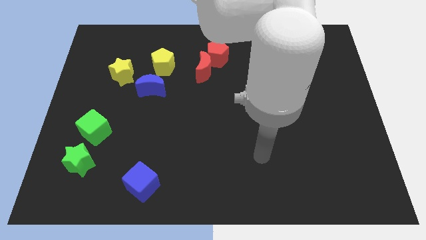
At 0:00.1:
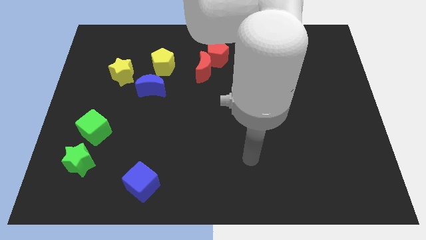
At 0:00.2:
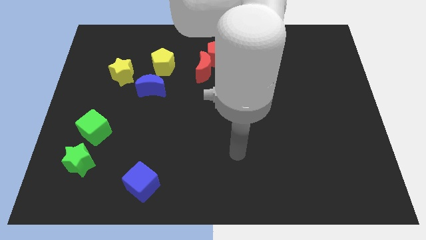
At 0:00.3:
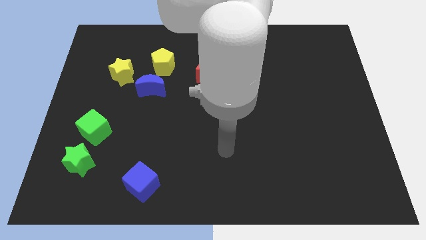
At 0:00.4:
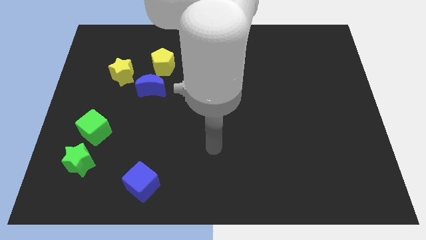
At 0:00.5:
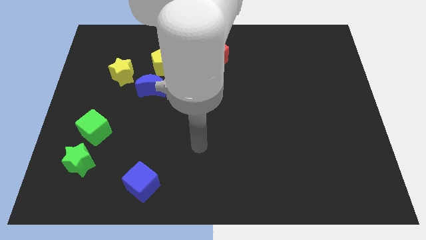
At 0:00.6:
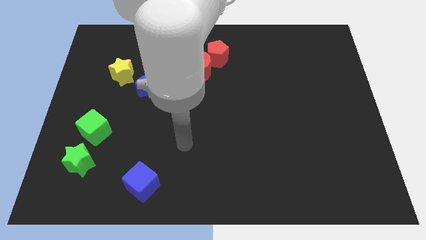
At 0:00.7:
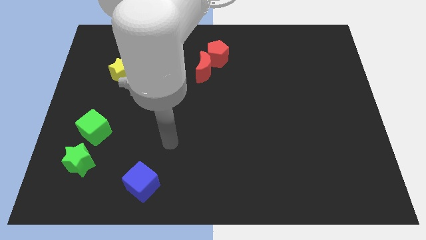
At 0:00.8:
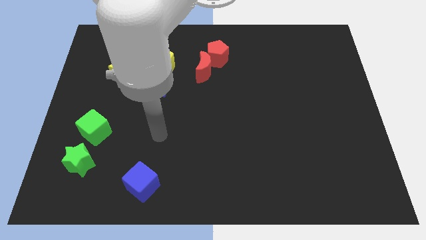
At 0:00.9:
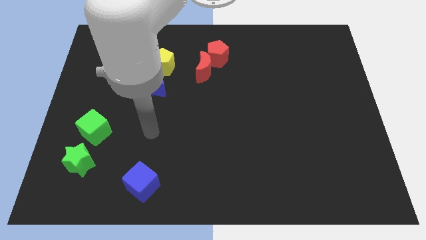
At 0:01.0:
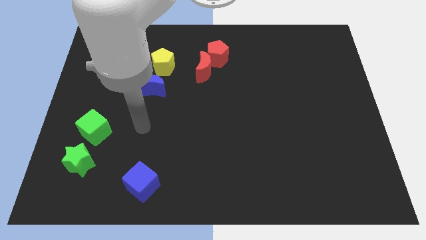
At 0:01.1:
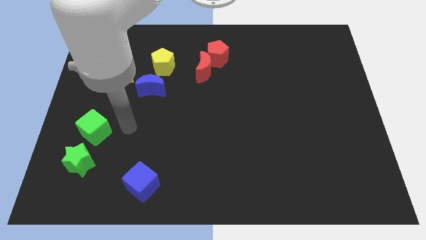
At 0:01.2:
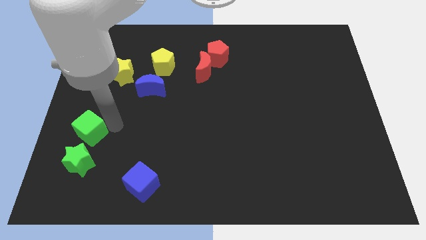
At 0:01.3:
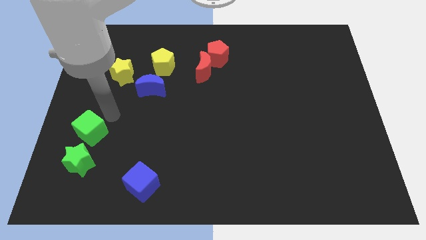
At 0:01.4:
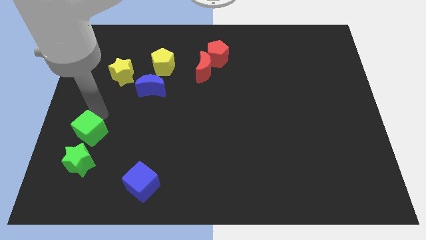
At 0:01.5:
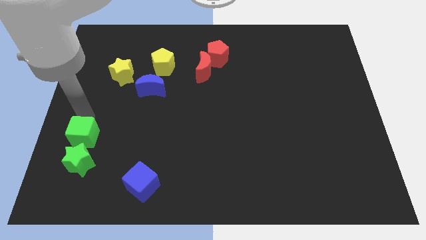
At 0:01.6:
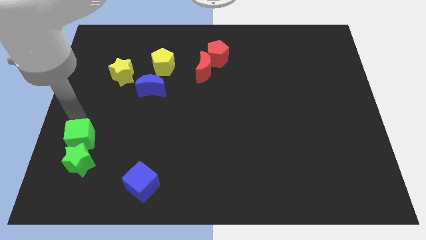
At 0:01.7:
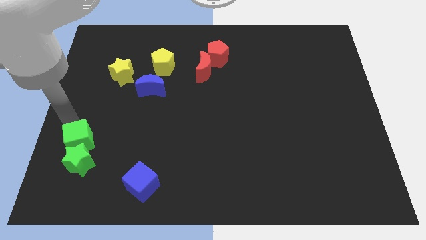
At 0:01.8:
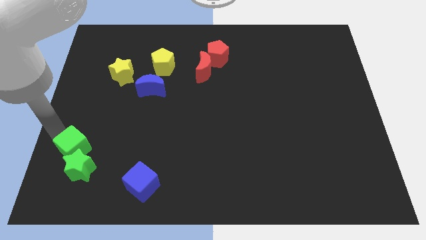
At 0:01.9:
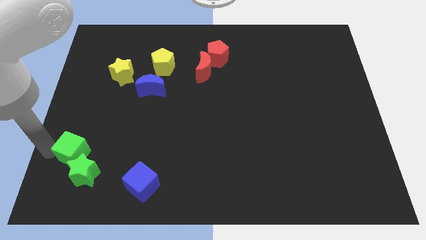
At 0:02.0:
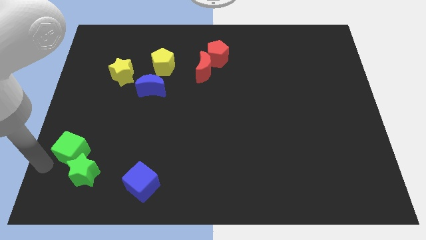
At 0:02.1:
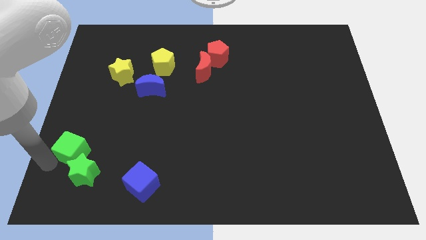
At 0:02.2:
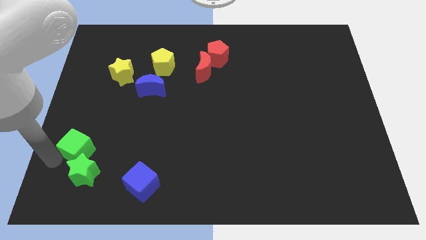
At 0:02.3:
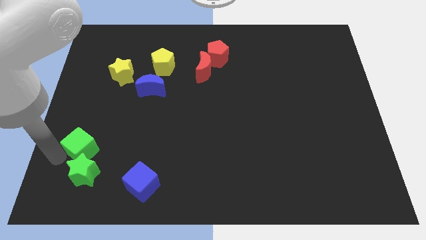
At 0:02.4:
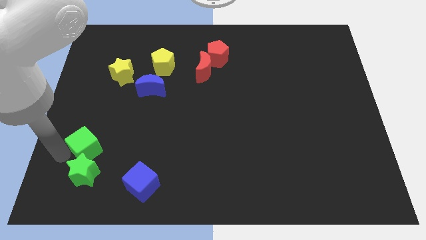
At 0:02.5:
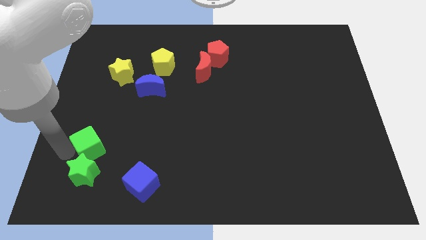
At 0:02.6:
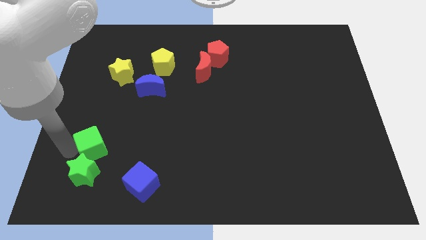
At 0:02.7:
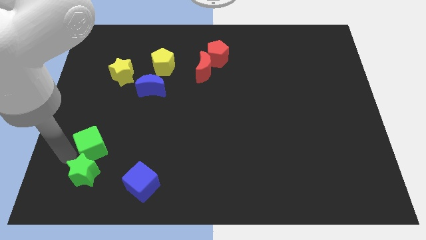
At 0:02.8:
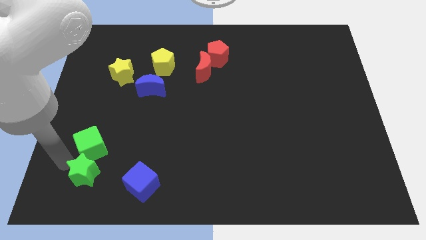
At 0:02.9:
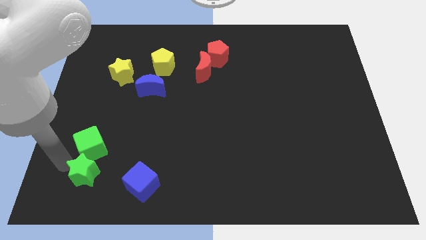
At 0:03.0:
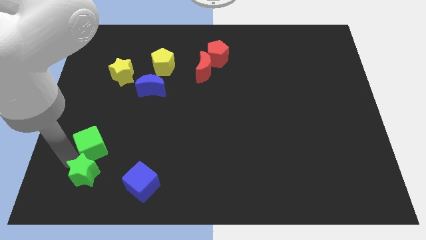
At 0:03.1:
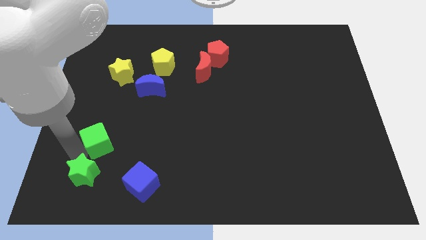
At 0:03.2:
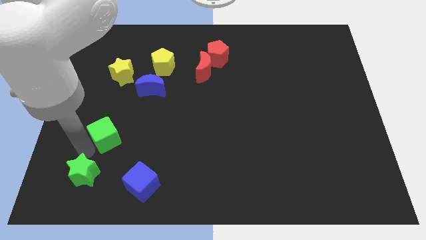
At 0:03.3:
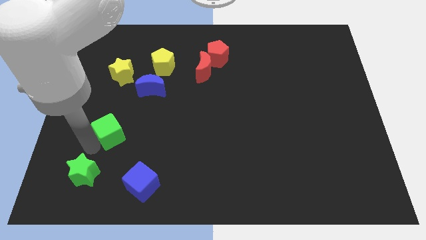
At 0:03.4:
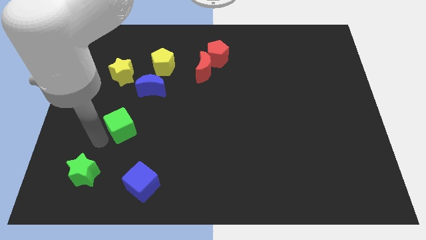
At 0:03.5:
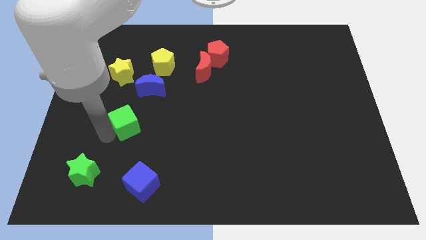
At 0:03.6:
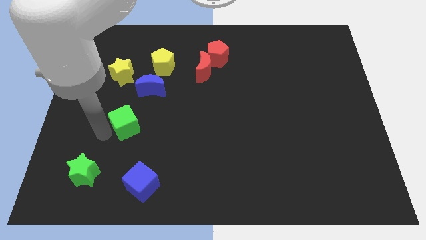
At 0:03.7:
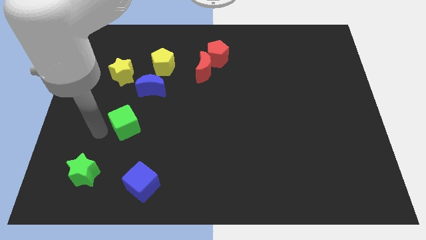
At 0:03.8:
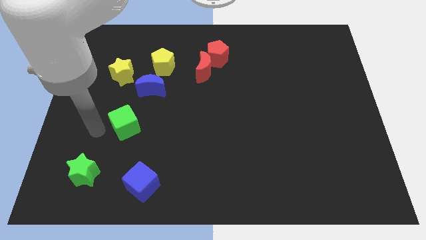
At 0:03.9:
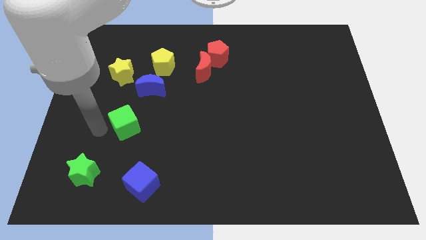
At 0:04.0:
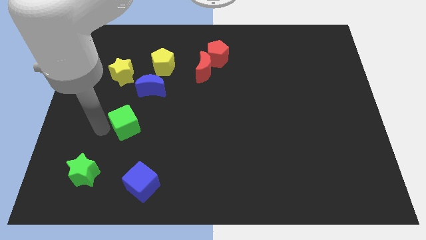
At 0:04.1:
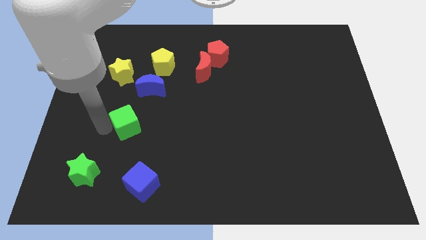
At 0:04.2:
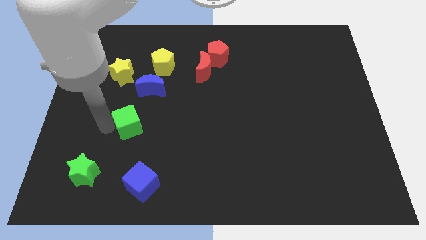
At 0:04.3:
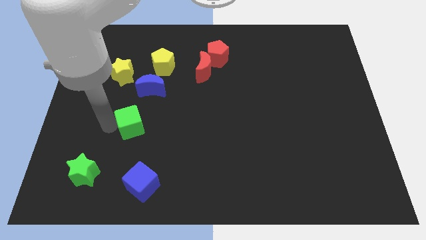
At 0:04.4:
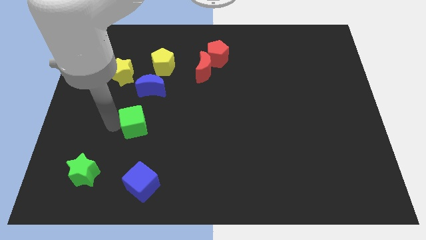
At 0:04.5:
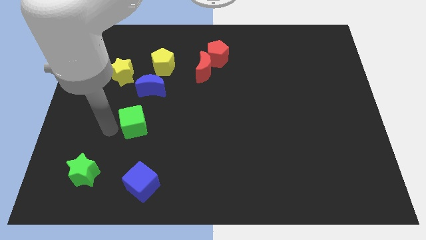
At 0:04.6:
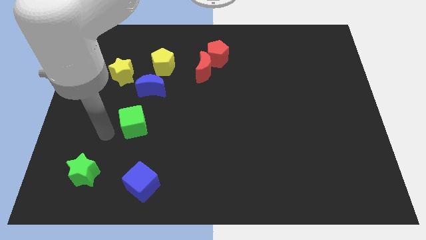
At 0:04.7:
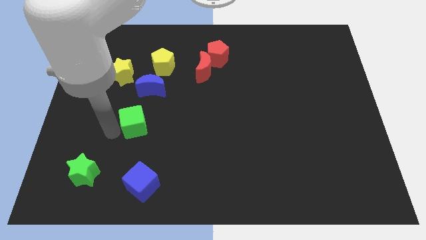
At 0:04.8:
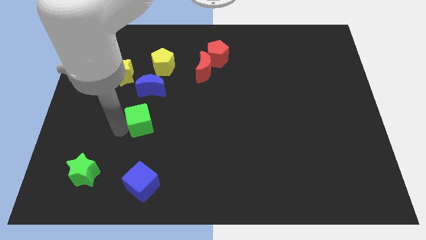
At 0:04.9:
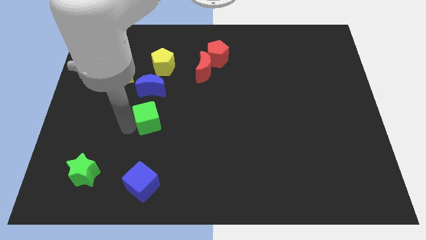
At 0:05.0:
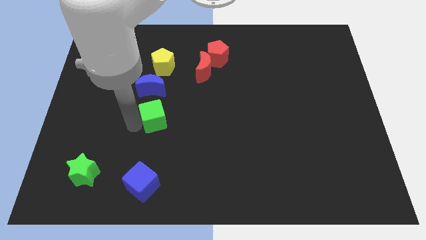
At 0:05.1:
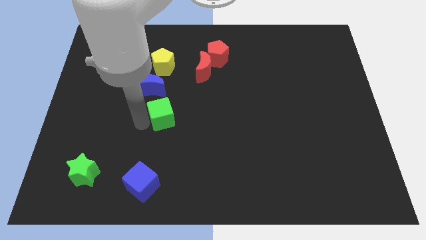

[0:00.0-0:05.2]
slide the green cube to the center of the board

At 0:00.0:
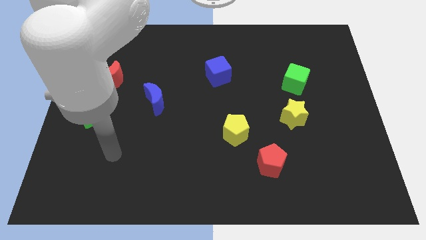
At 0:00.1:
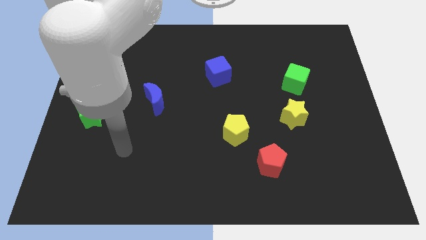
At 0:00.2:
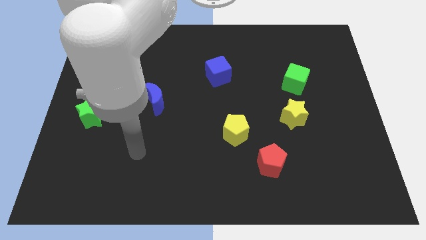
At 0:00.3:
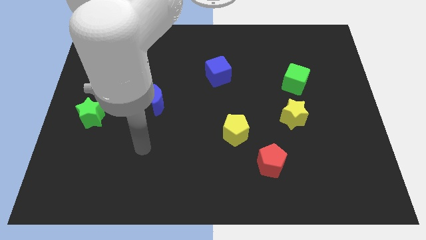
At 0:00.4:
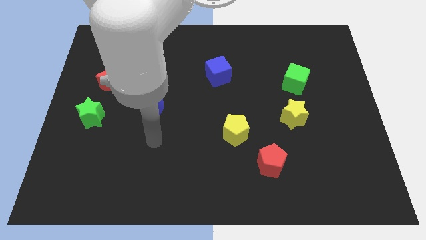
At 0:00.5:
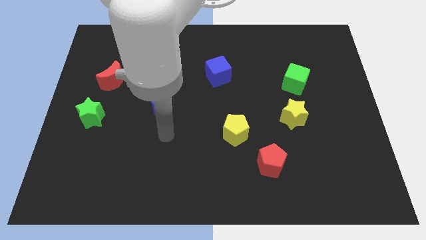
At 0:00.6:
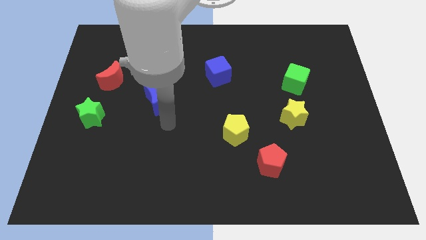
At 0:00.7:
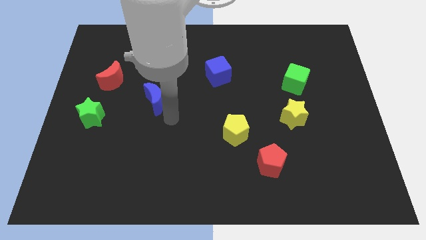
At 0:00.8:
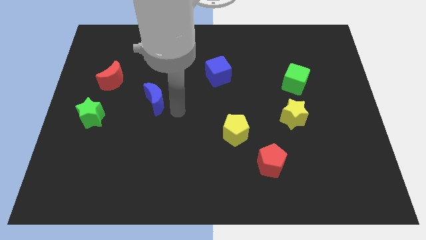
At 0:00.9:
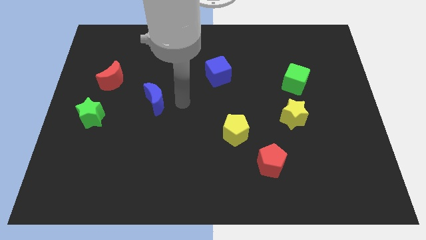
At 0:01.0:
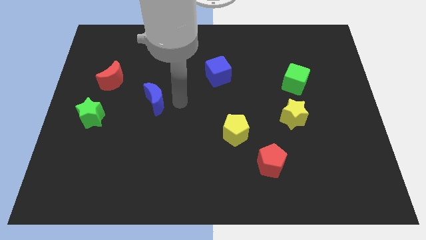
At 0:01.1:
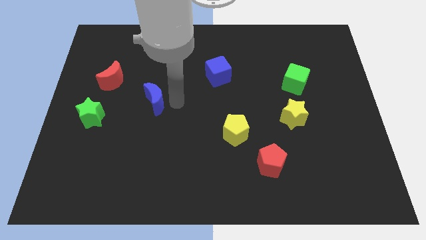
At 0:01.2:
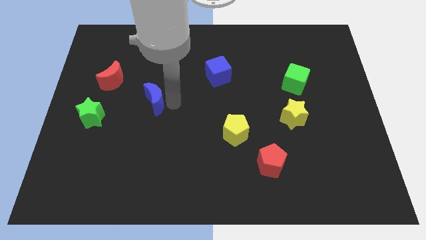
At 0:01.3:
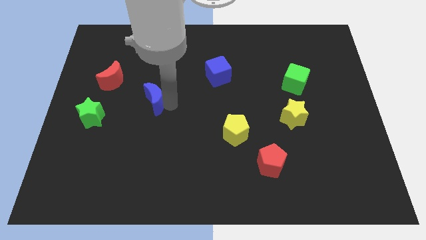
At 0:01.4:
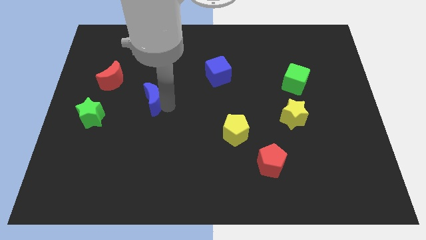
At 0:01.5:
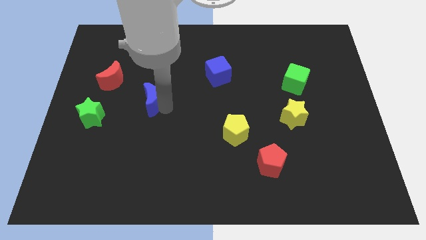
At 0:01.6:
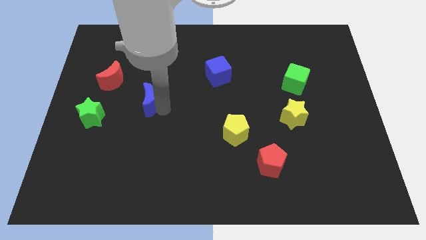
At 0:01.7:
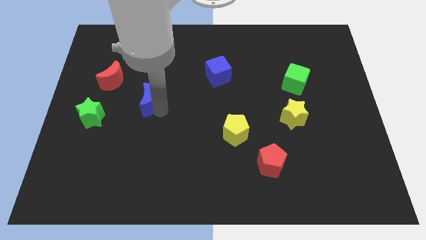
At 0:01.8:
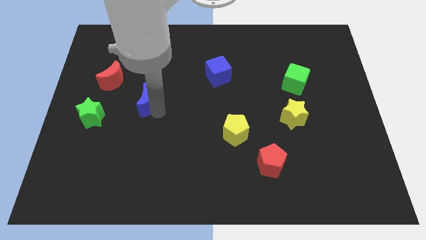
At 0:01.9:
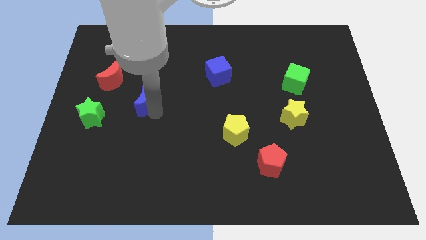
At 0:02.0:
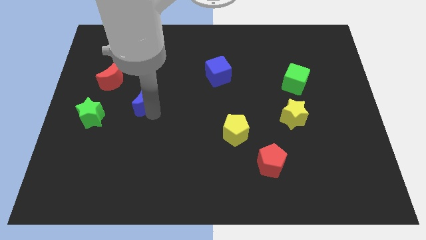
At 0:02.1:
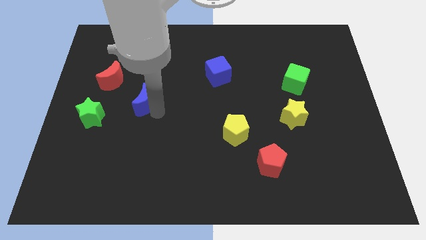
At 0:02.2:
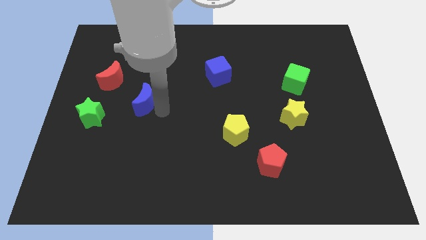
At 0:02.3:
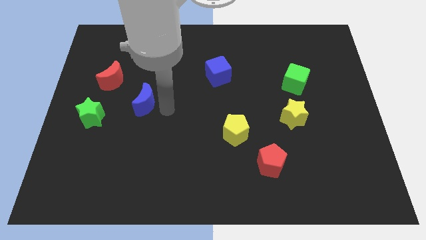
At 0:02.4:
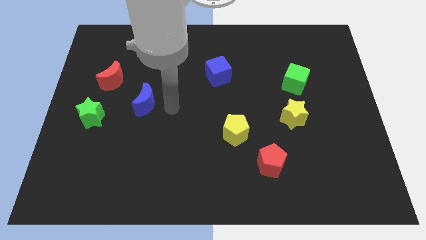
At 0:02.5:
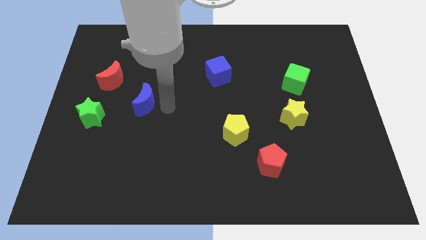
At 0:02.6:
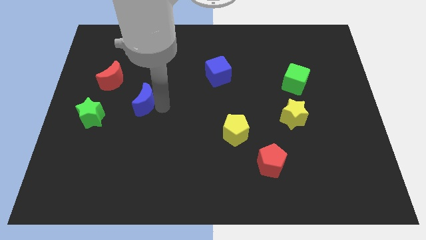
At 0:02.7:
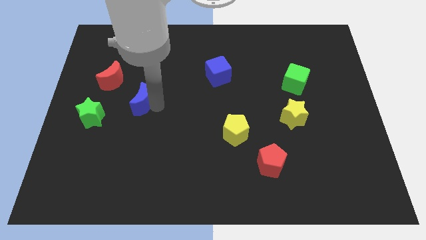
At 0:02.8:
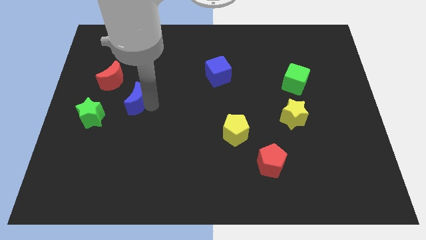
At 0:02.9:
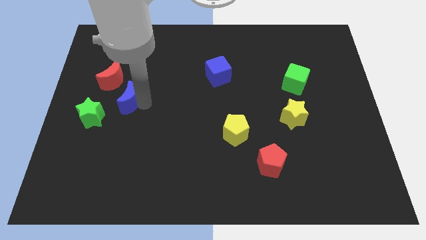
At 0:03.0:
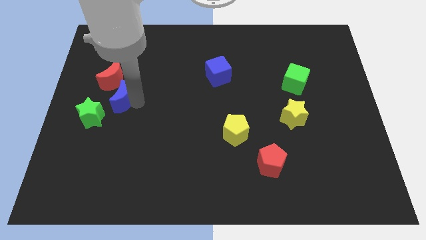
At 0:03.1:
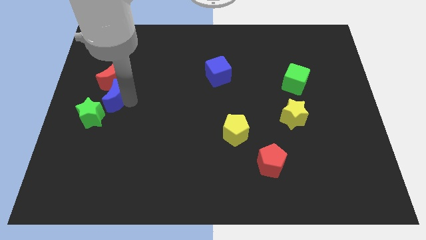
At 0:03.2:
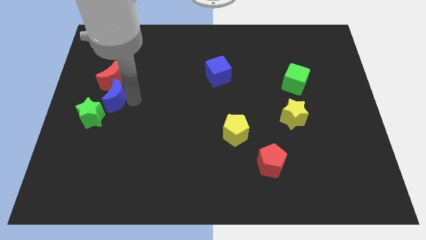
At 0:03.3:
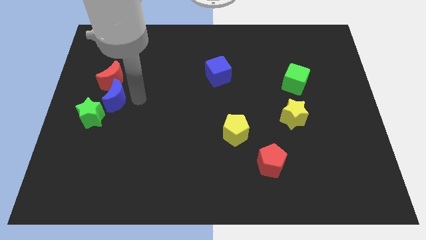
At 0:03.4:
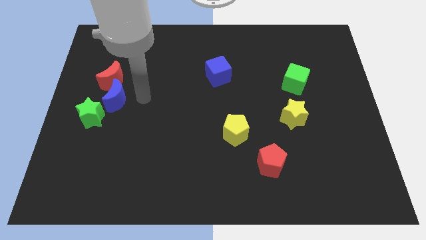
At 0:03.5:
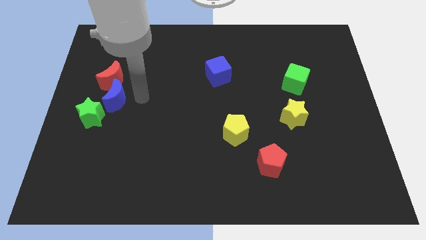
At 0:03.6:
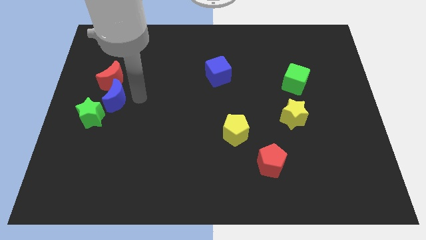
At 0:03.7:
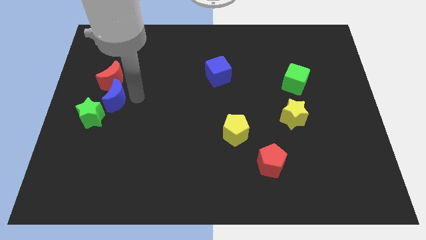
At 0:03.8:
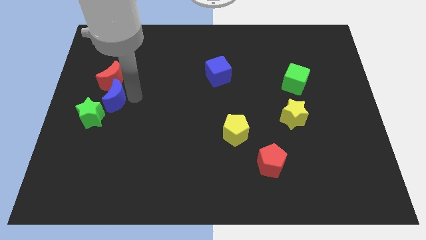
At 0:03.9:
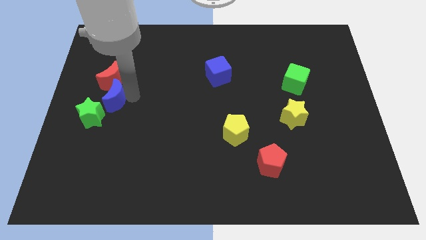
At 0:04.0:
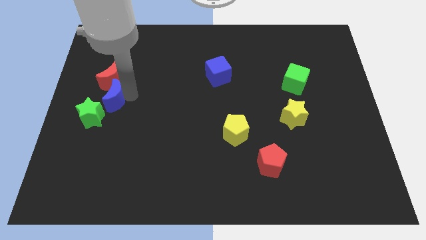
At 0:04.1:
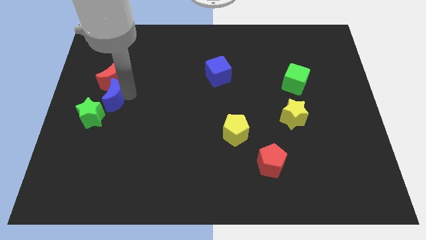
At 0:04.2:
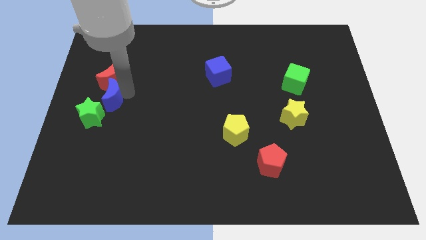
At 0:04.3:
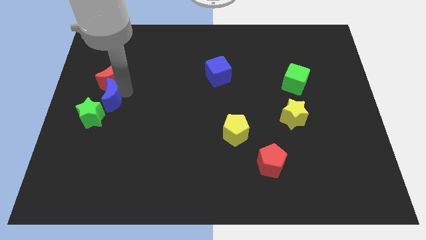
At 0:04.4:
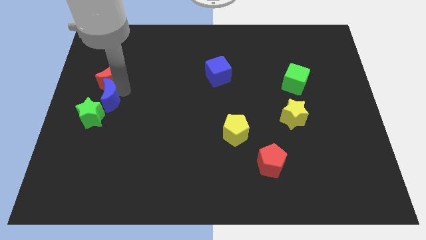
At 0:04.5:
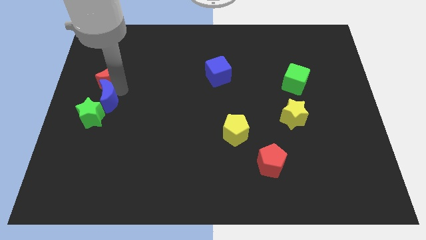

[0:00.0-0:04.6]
put the blue moon to the left side
